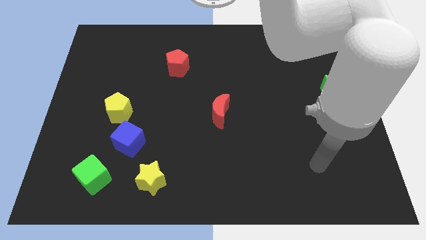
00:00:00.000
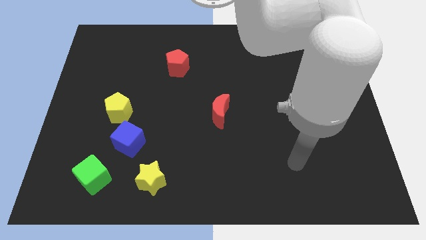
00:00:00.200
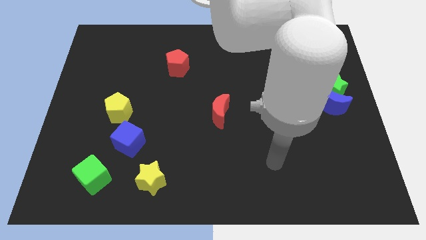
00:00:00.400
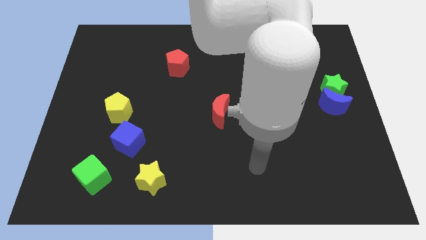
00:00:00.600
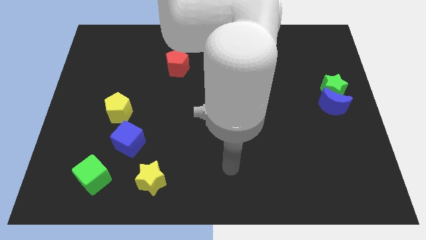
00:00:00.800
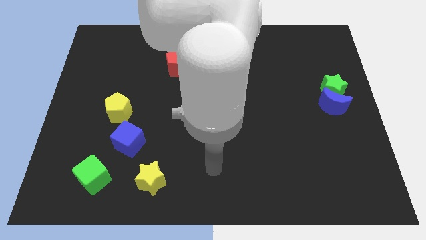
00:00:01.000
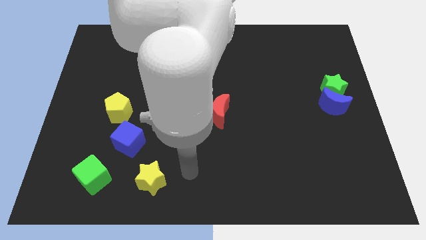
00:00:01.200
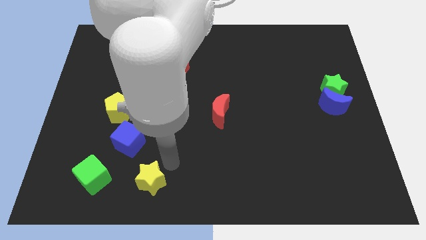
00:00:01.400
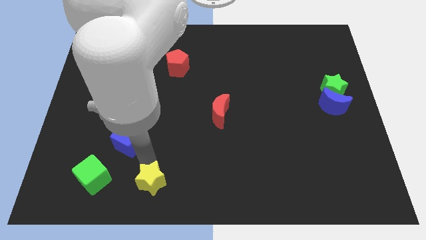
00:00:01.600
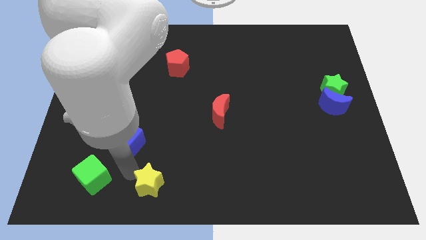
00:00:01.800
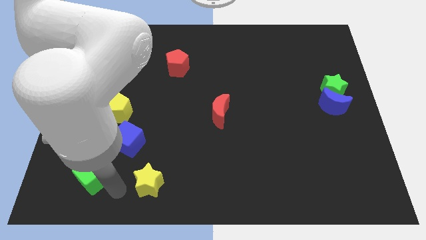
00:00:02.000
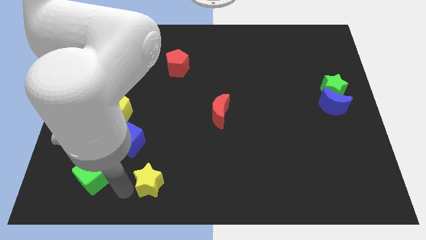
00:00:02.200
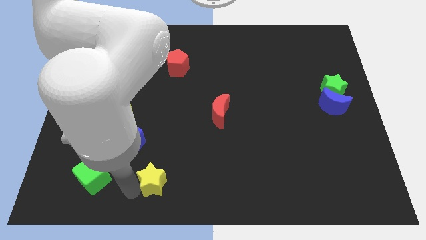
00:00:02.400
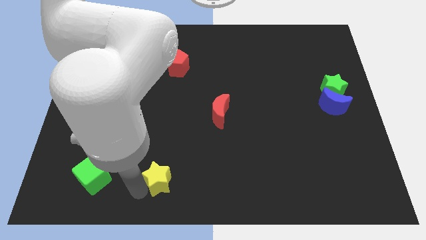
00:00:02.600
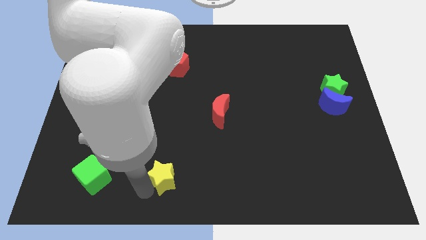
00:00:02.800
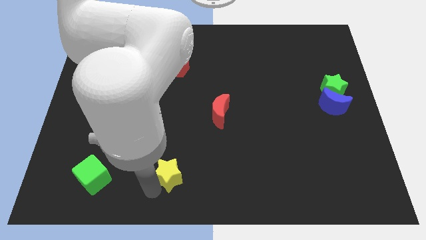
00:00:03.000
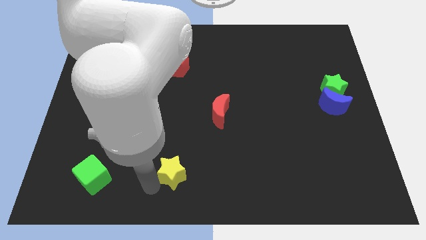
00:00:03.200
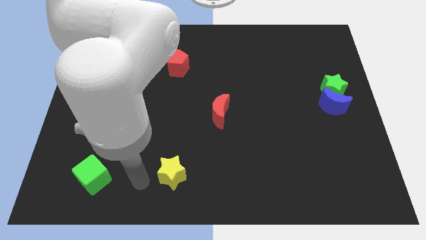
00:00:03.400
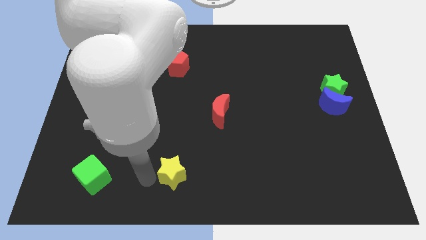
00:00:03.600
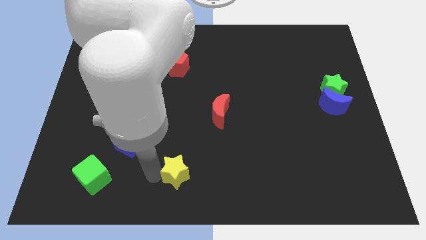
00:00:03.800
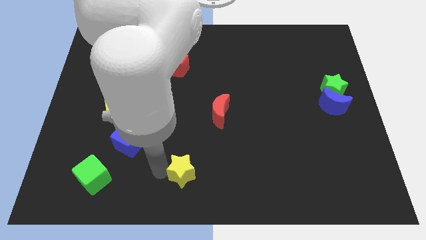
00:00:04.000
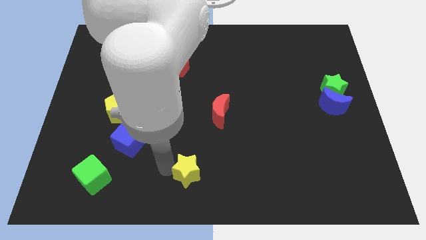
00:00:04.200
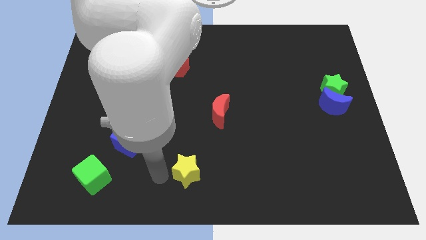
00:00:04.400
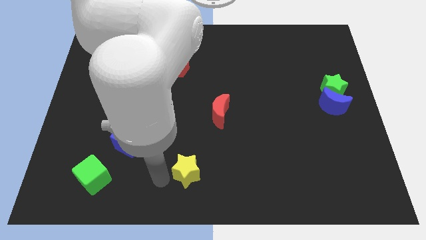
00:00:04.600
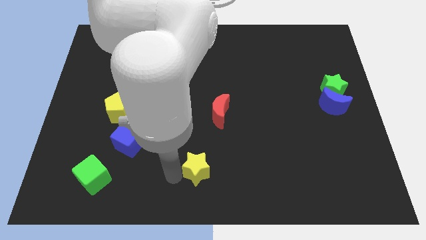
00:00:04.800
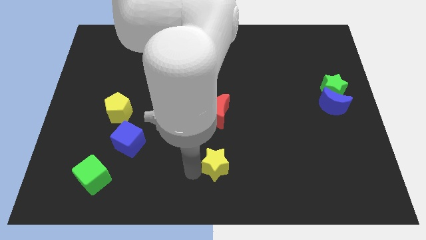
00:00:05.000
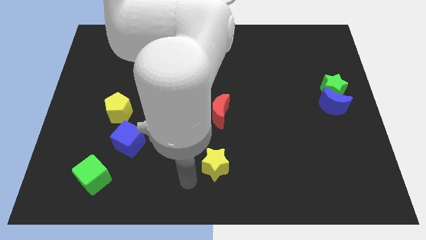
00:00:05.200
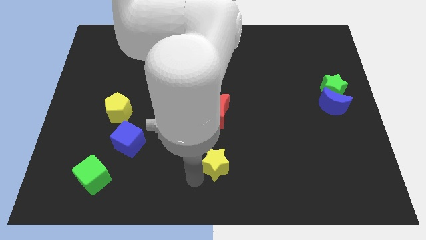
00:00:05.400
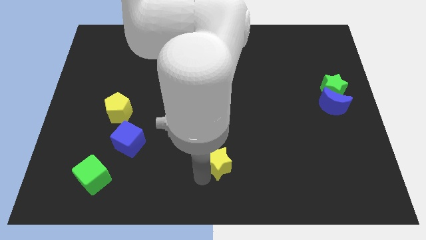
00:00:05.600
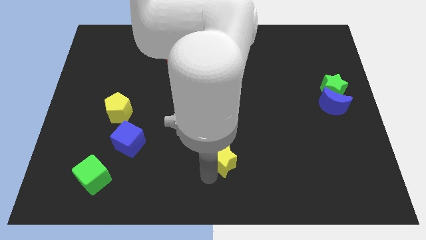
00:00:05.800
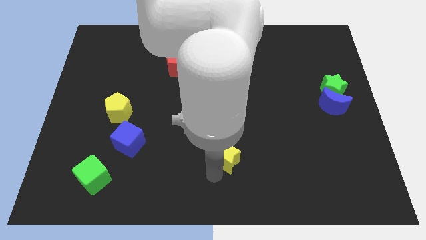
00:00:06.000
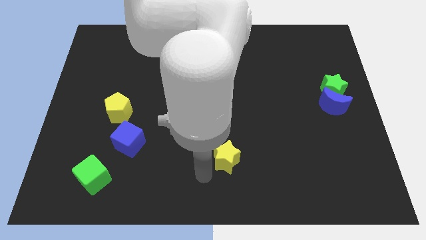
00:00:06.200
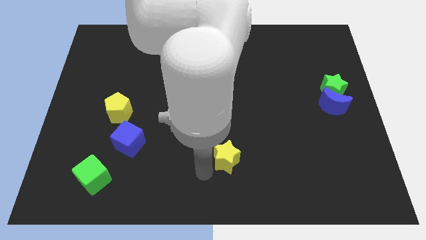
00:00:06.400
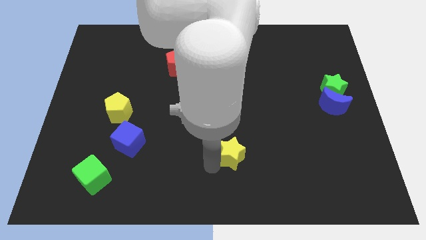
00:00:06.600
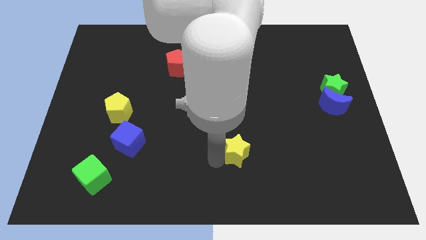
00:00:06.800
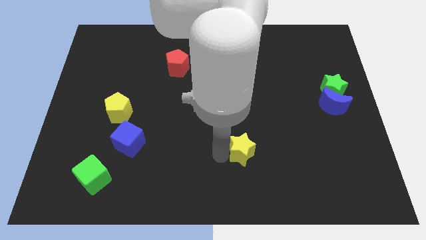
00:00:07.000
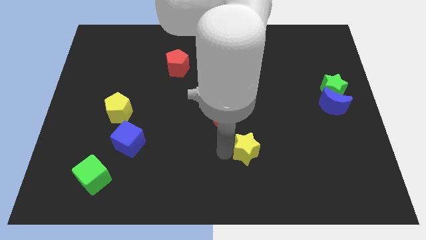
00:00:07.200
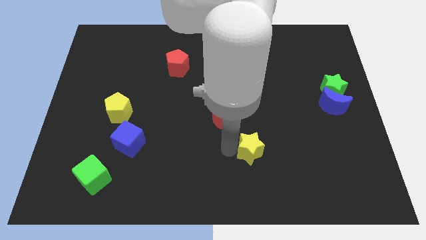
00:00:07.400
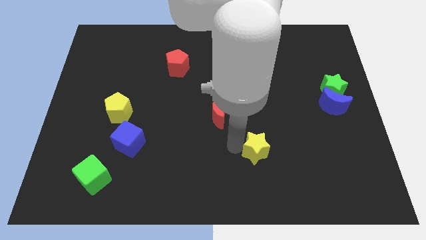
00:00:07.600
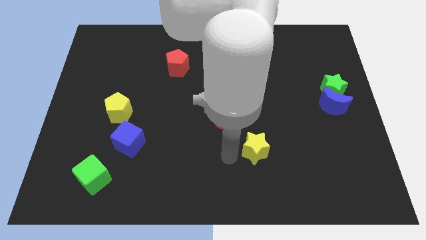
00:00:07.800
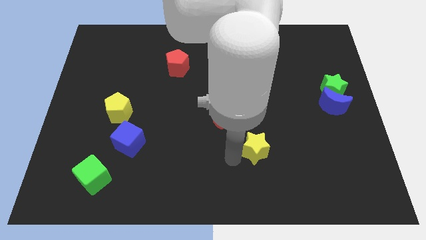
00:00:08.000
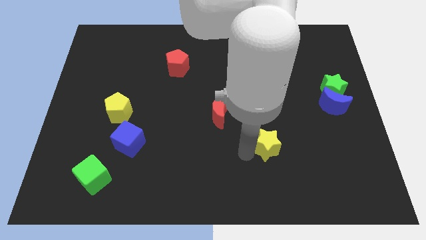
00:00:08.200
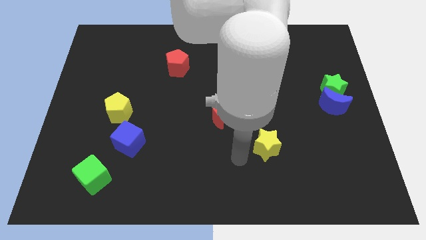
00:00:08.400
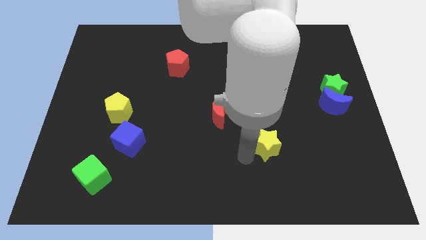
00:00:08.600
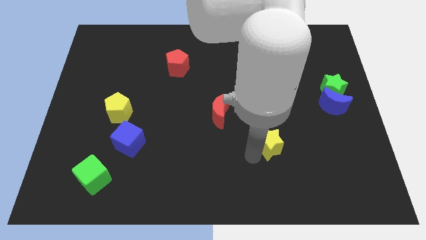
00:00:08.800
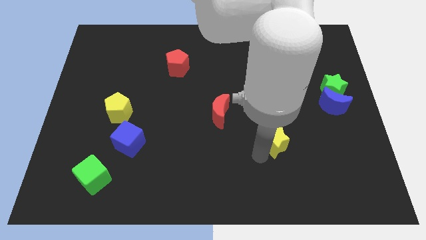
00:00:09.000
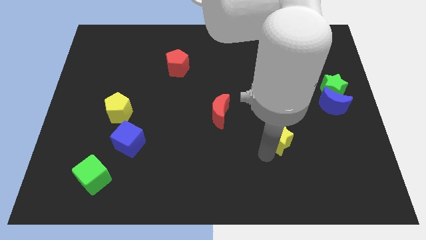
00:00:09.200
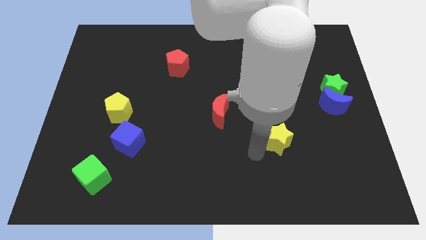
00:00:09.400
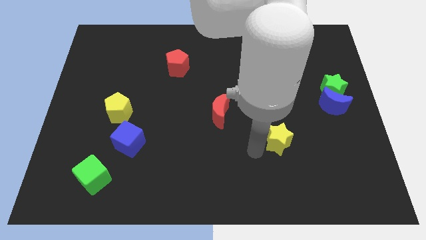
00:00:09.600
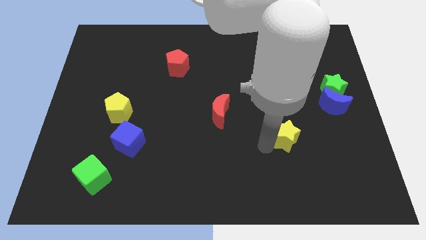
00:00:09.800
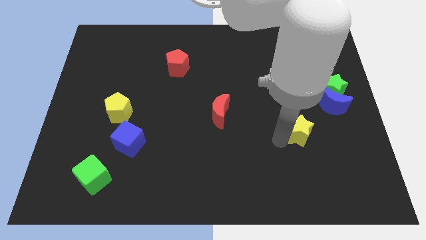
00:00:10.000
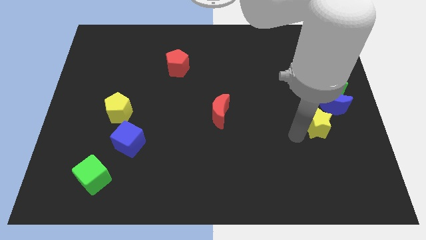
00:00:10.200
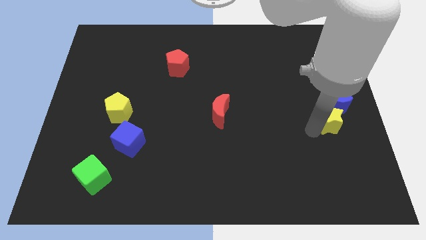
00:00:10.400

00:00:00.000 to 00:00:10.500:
push the yellow star close to the blue moon

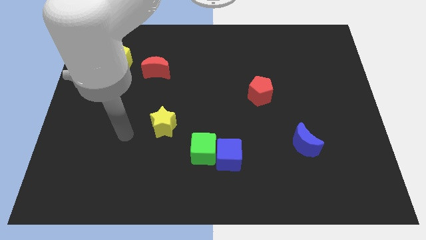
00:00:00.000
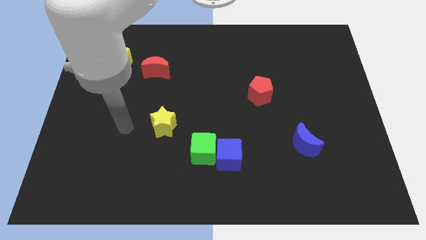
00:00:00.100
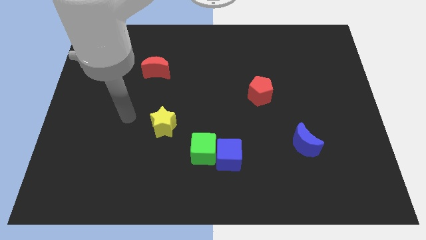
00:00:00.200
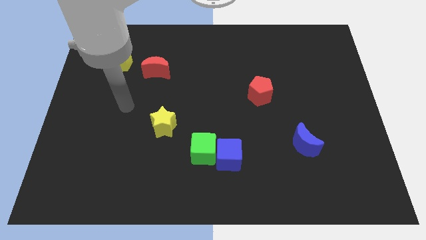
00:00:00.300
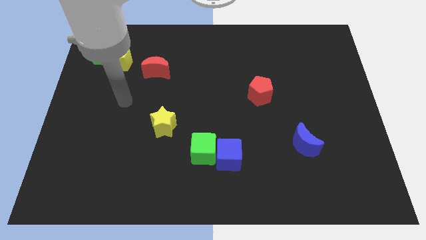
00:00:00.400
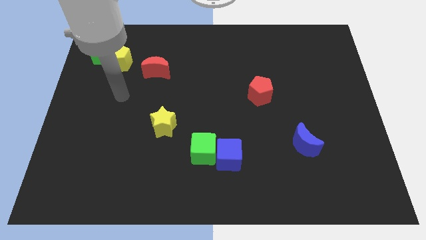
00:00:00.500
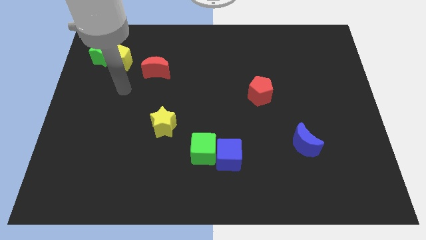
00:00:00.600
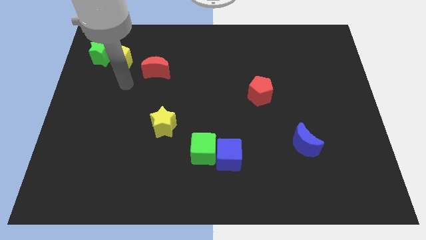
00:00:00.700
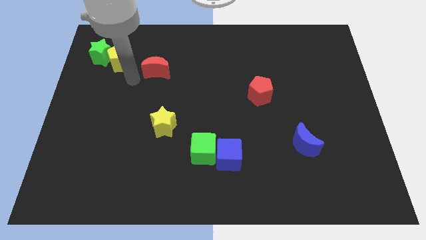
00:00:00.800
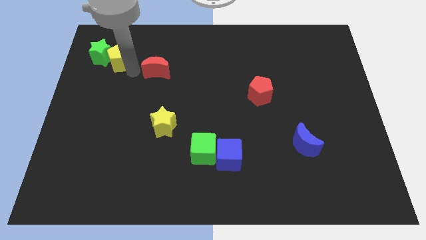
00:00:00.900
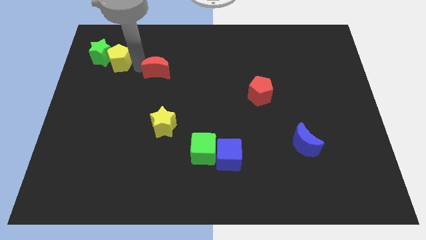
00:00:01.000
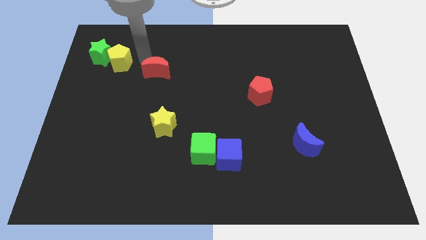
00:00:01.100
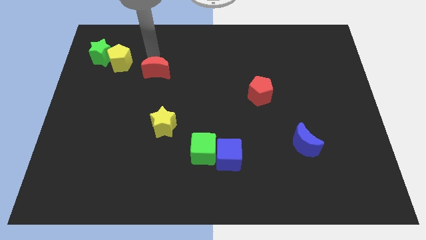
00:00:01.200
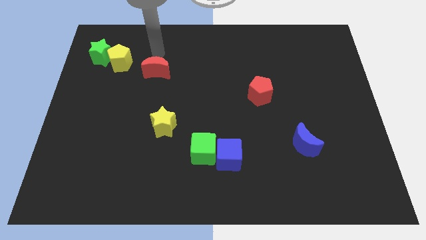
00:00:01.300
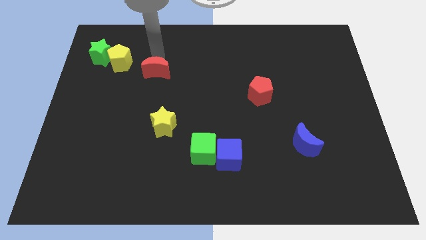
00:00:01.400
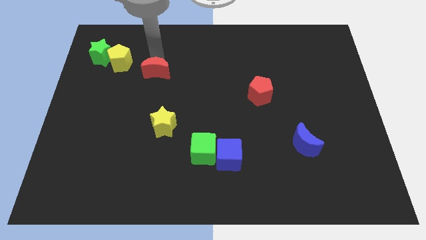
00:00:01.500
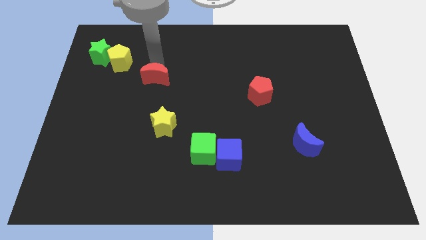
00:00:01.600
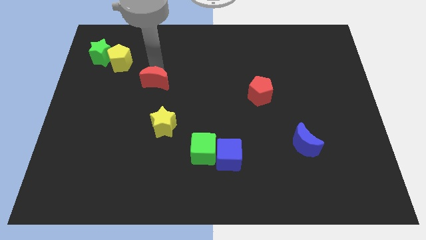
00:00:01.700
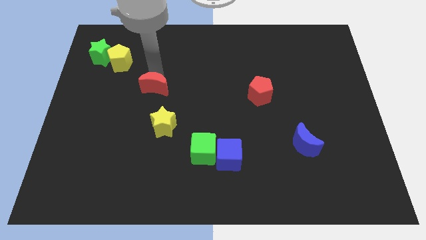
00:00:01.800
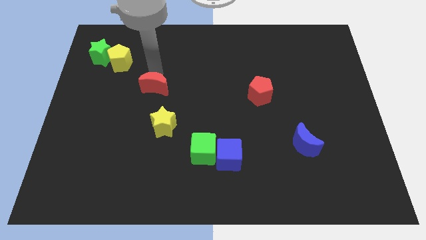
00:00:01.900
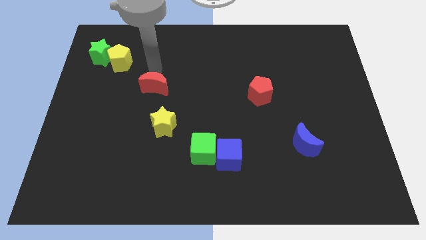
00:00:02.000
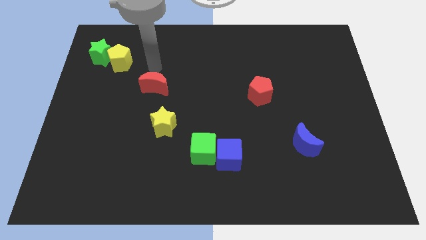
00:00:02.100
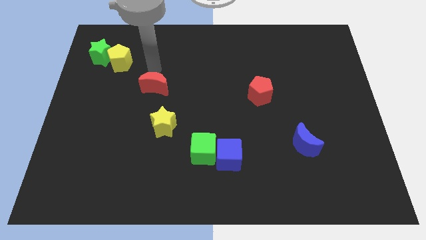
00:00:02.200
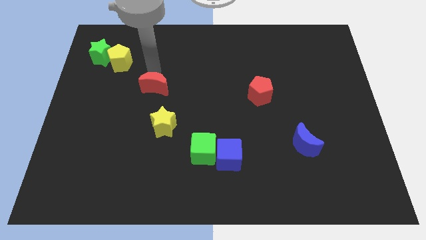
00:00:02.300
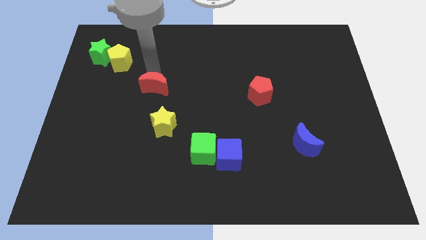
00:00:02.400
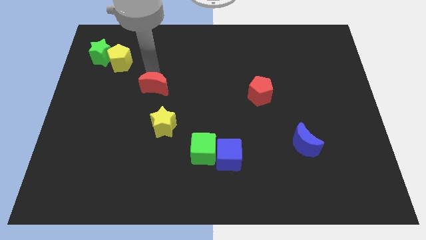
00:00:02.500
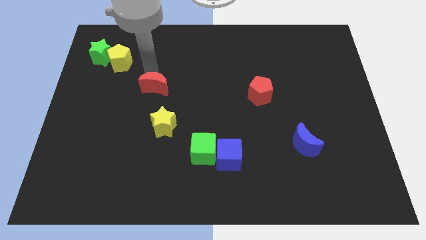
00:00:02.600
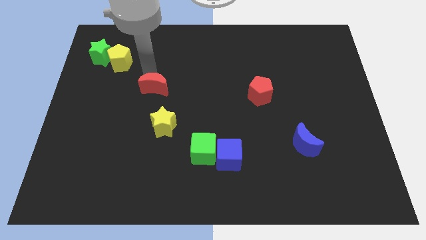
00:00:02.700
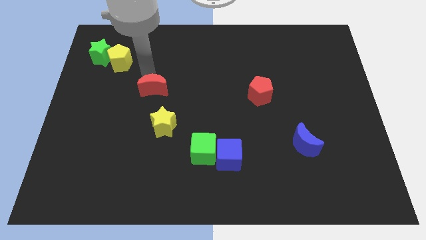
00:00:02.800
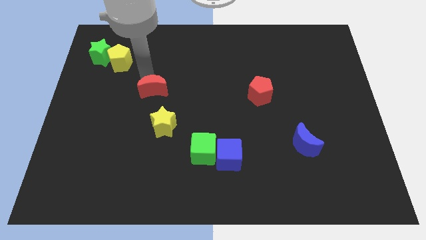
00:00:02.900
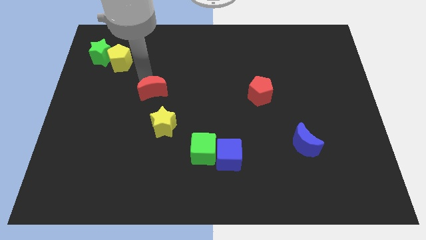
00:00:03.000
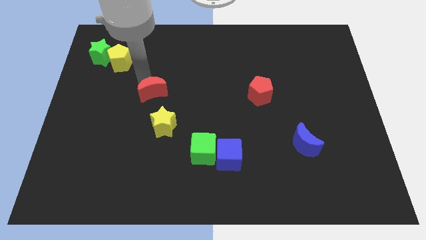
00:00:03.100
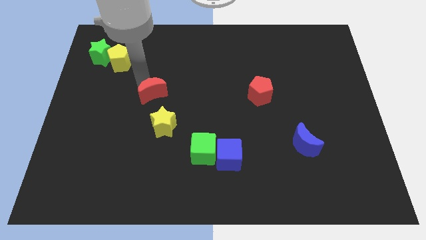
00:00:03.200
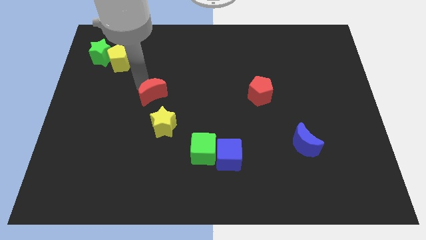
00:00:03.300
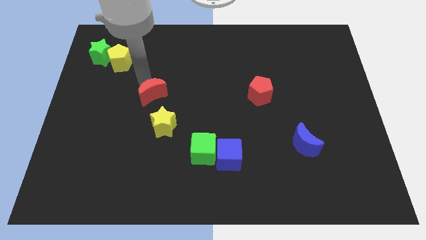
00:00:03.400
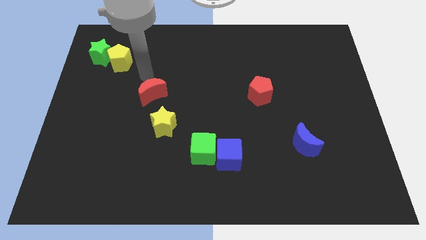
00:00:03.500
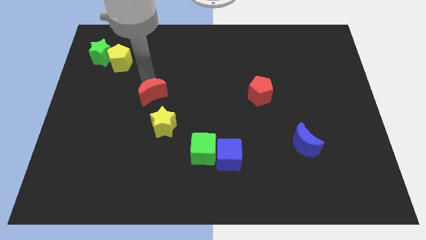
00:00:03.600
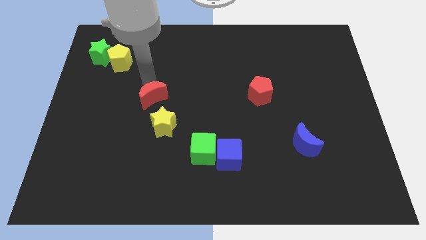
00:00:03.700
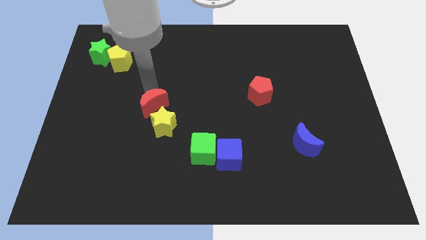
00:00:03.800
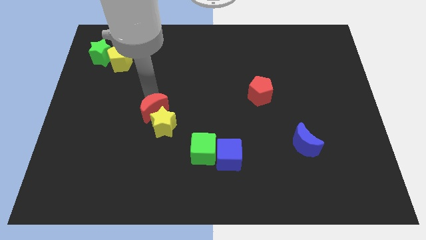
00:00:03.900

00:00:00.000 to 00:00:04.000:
slide the red moon to the yellow star
